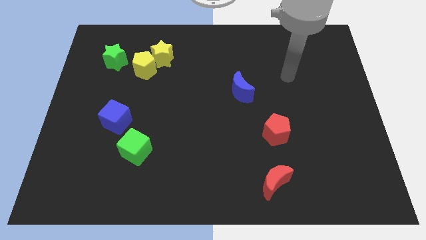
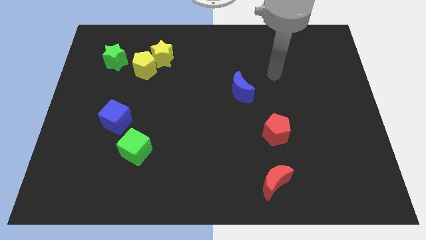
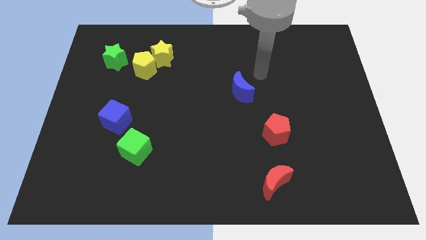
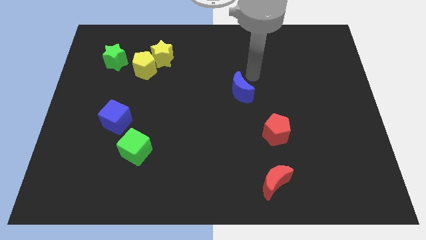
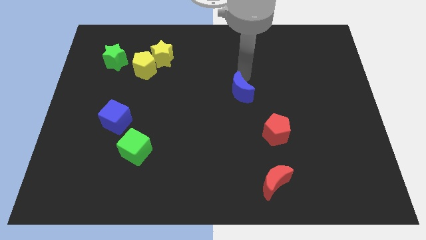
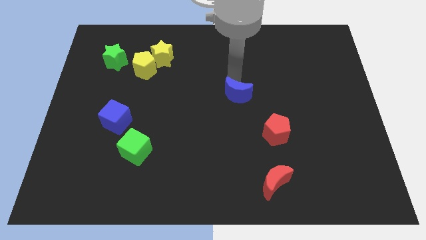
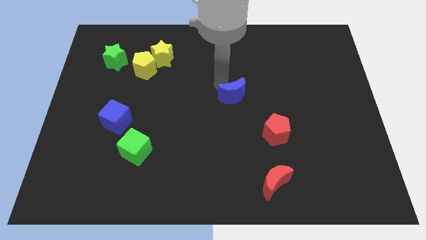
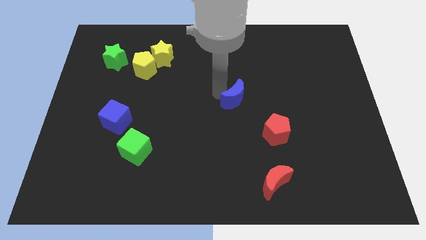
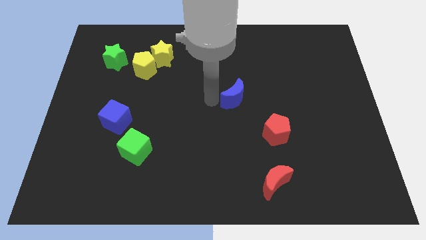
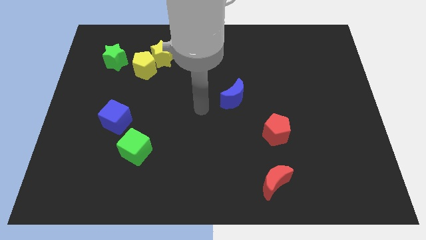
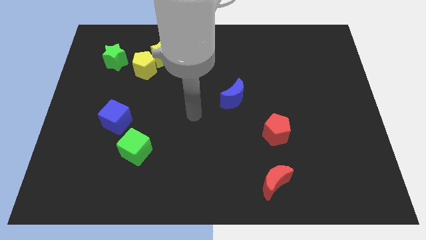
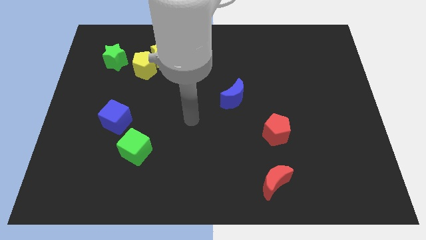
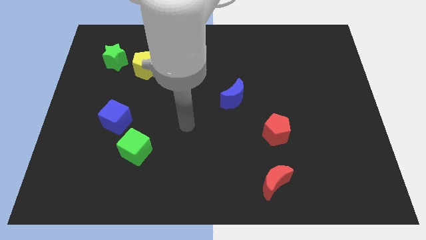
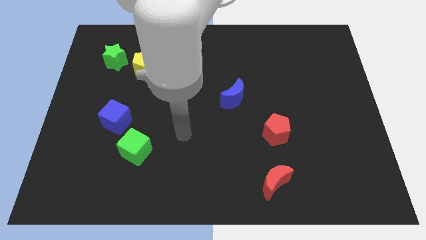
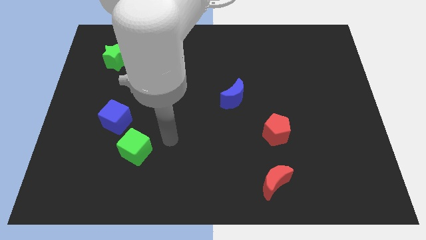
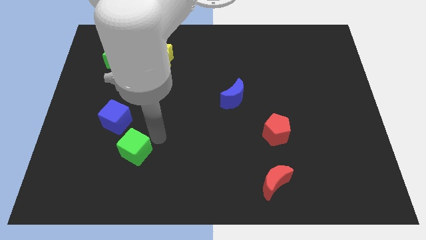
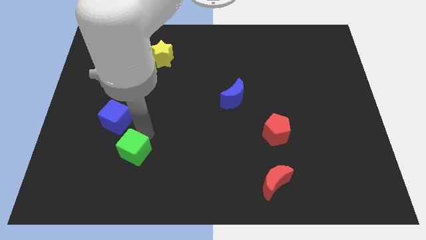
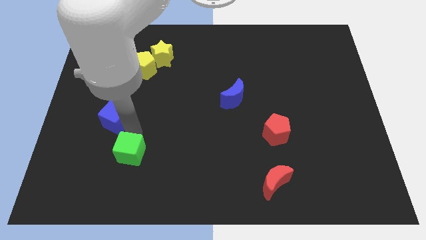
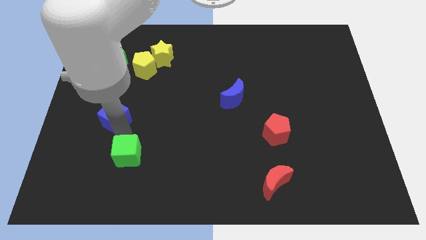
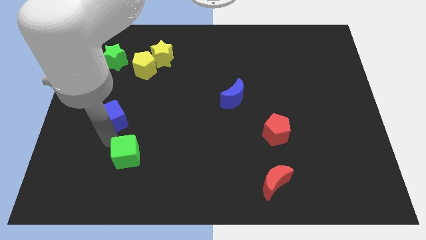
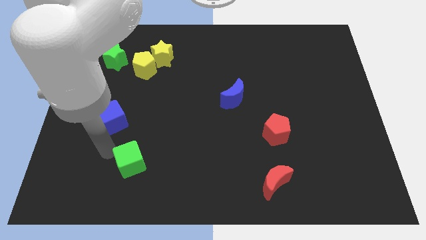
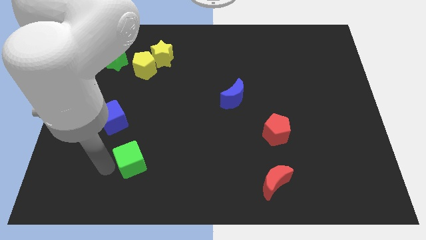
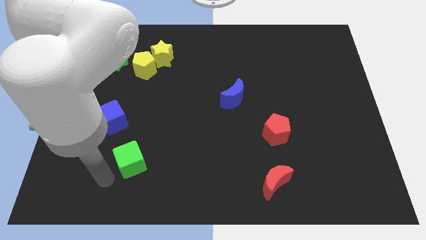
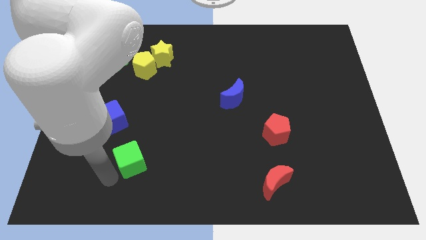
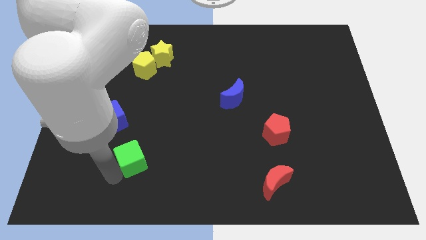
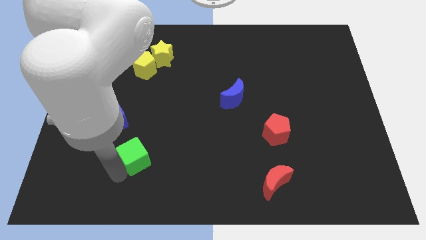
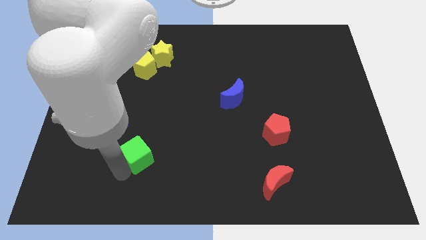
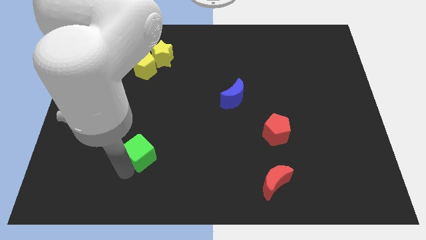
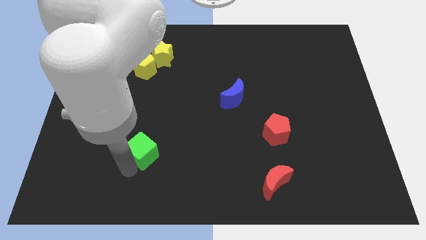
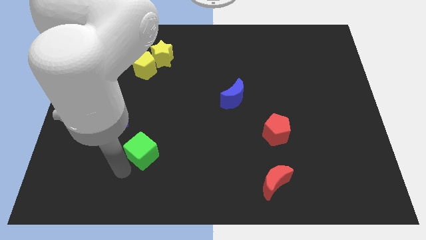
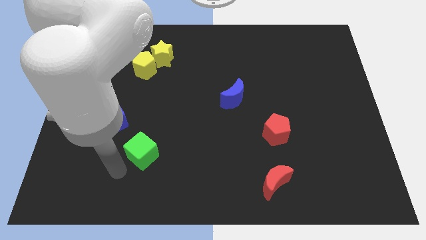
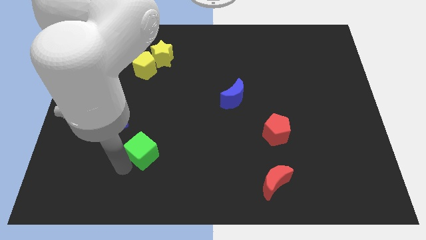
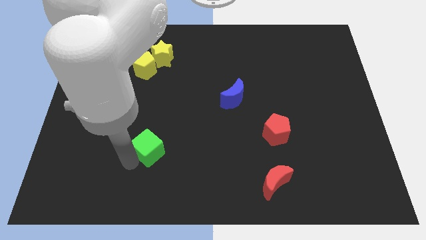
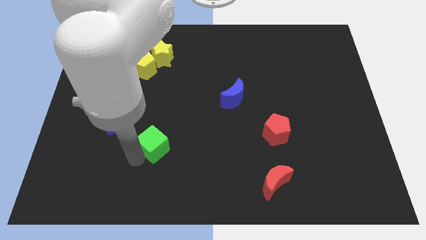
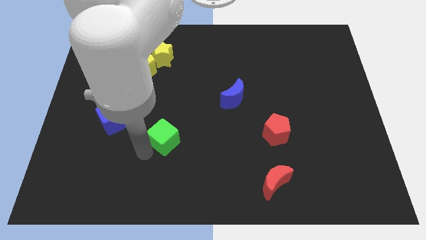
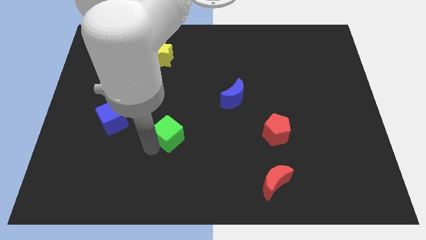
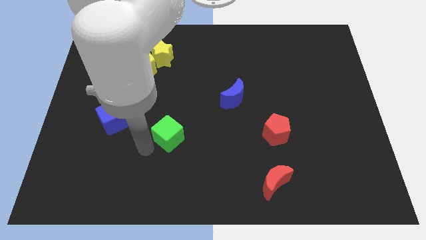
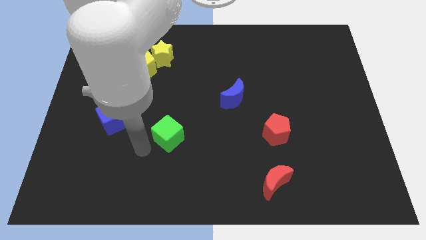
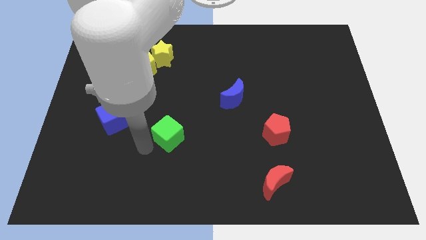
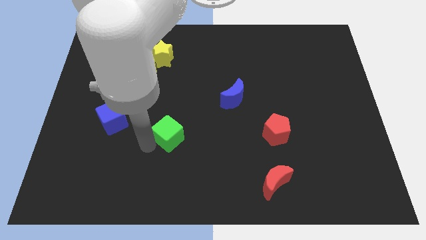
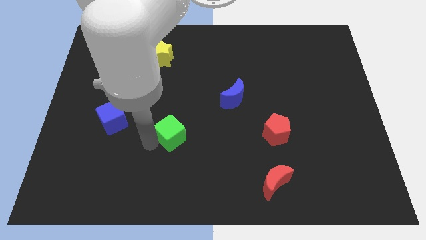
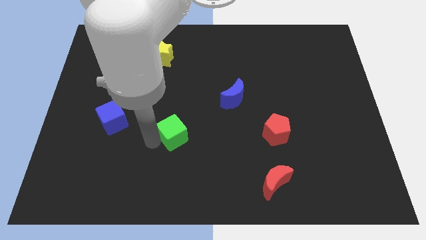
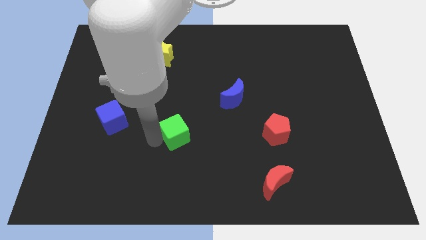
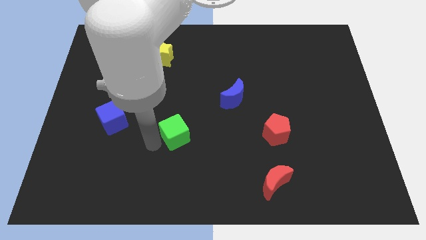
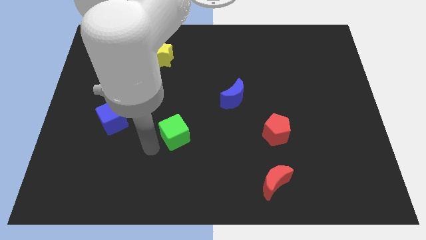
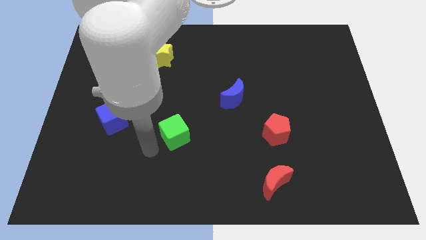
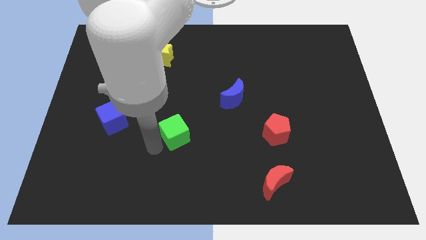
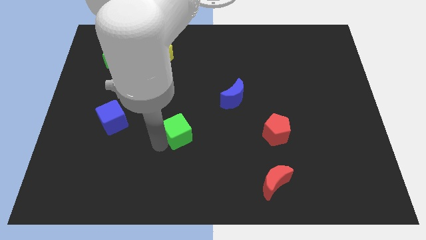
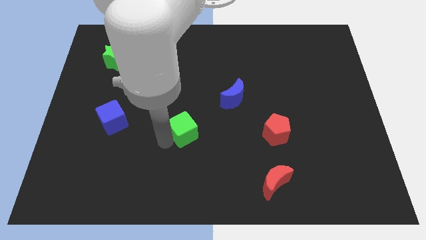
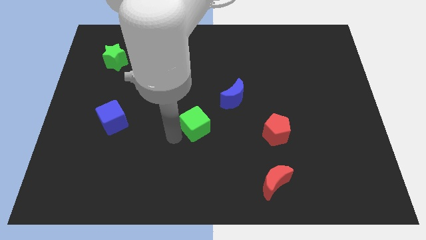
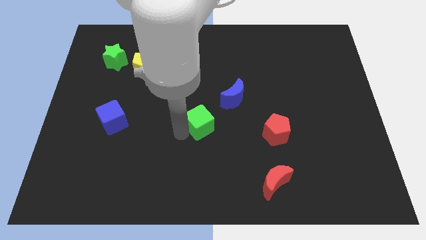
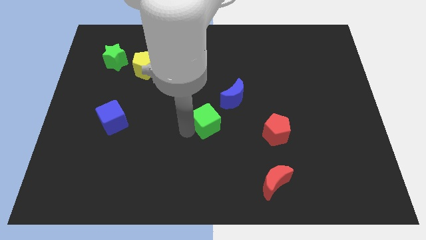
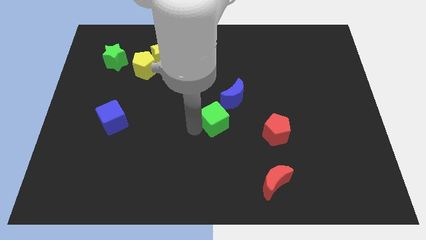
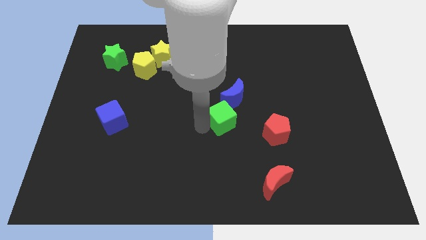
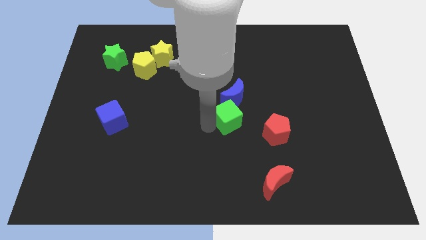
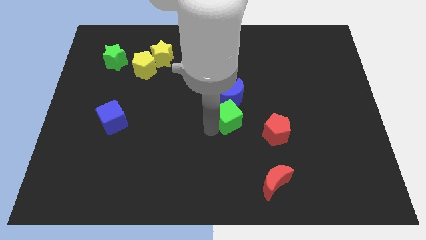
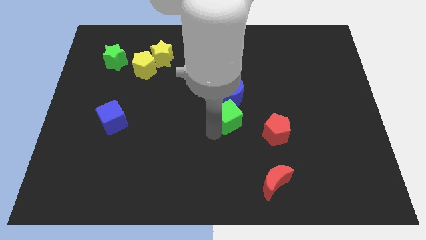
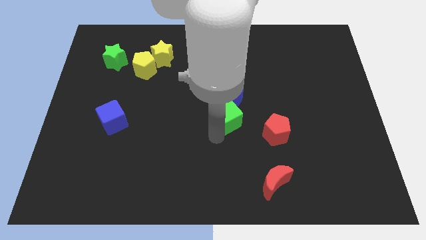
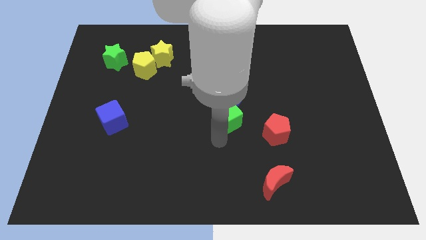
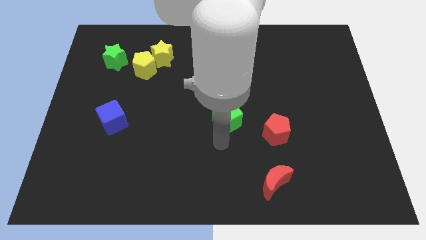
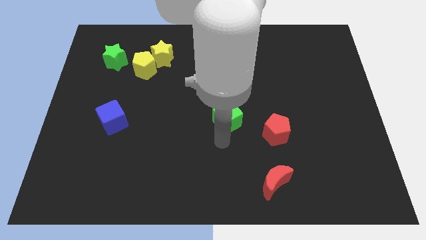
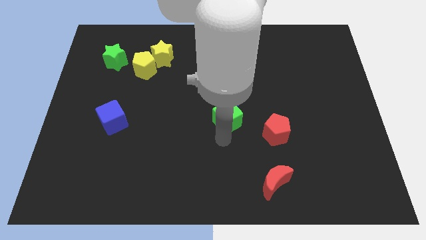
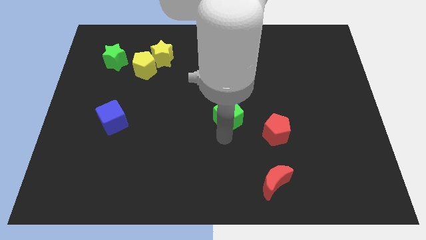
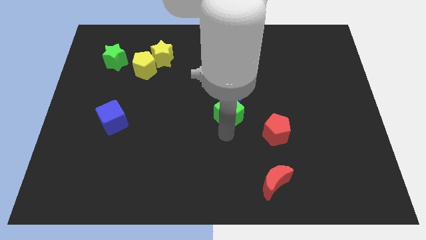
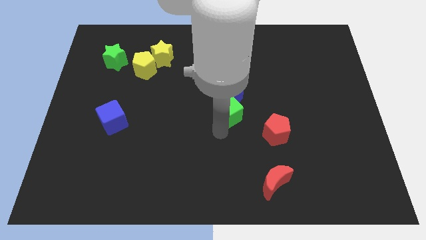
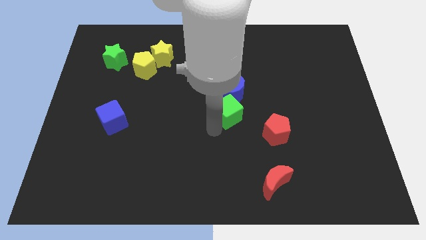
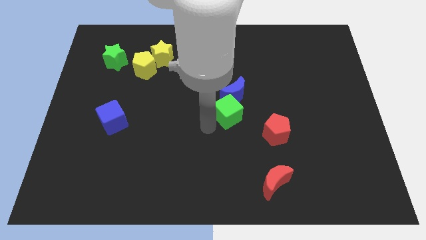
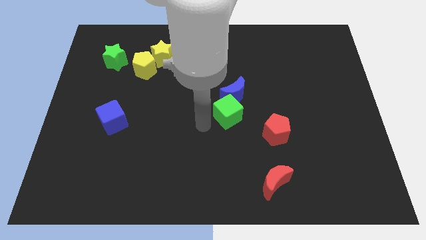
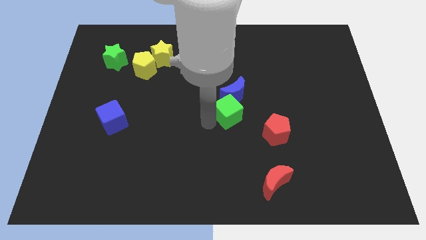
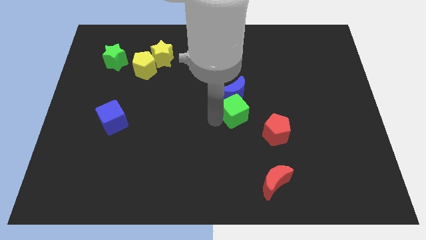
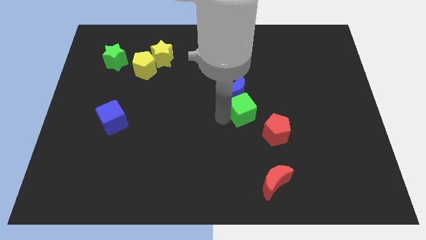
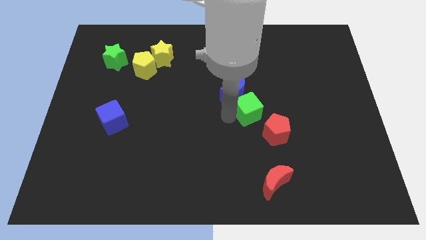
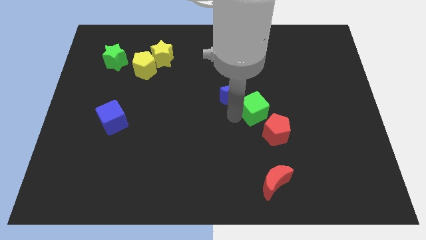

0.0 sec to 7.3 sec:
move the green cube just right of the blue moon

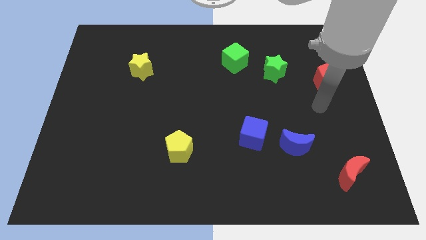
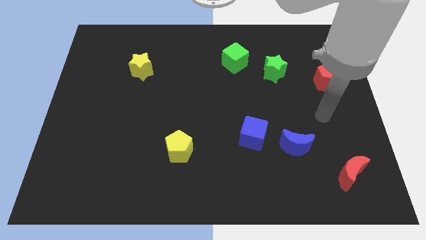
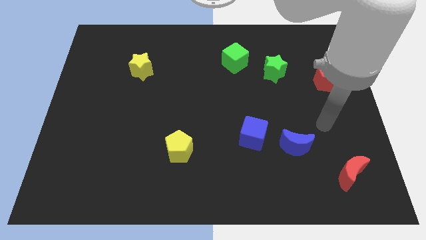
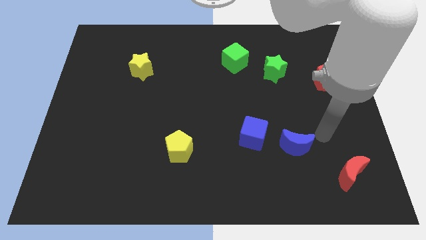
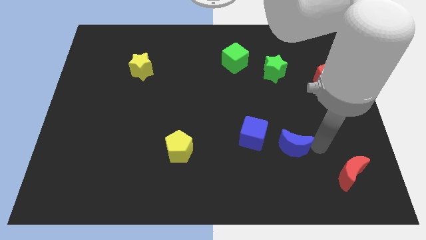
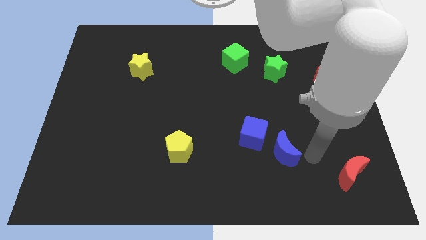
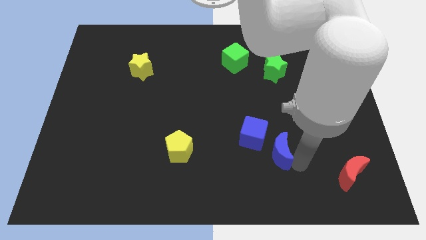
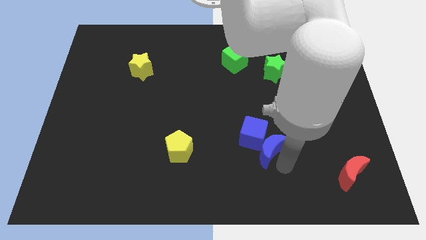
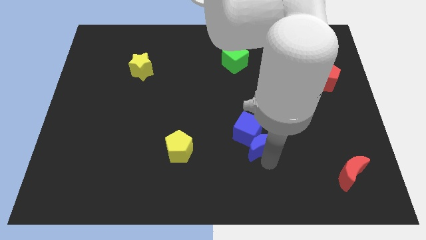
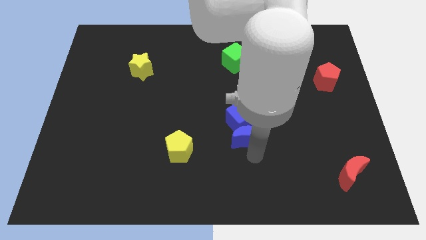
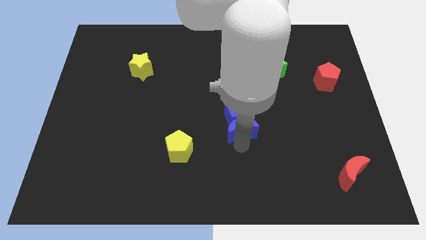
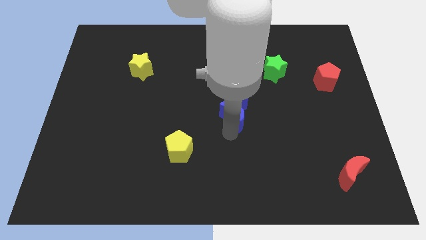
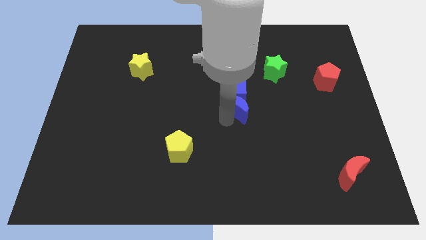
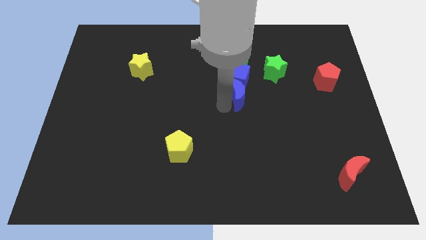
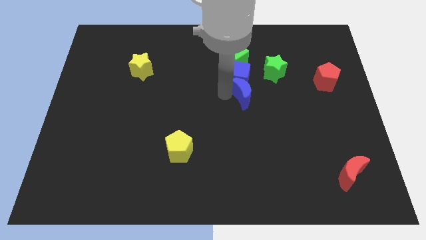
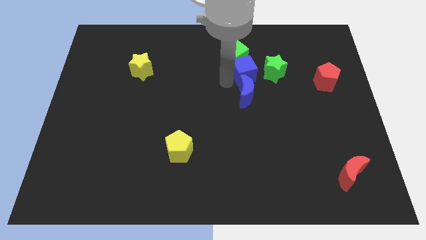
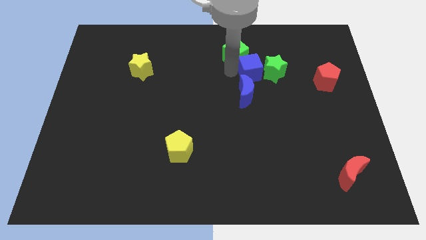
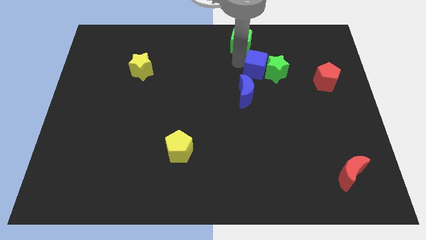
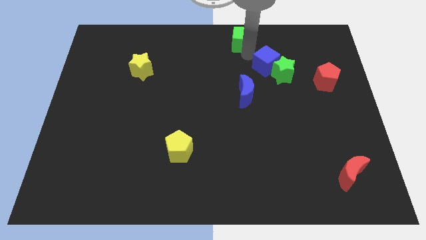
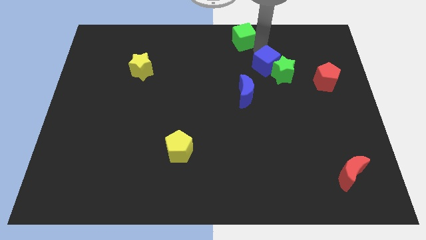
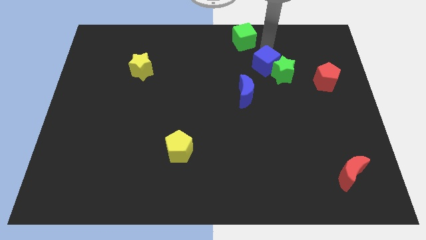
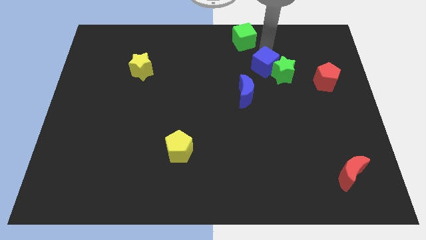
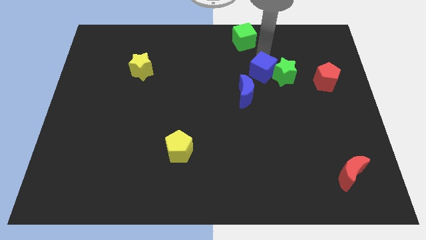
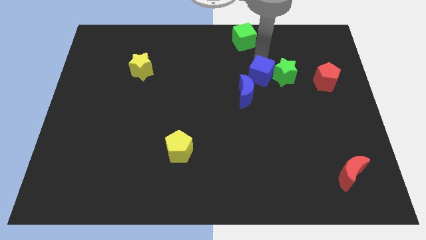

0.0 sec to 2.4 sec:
put the blue cube left of the red pentagon
